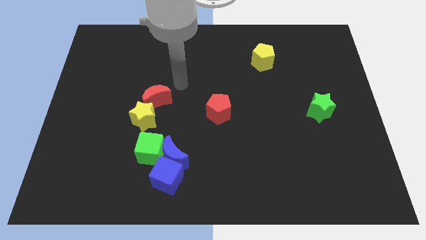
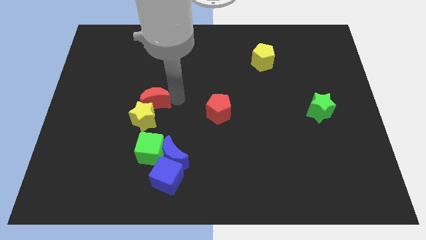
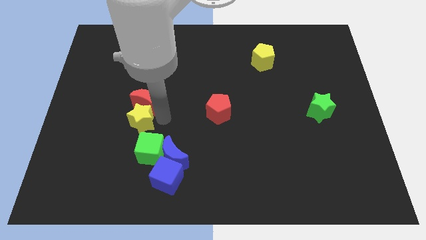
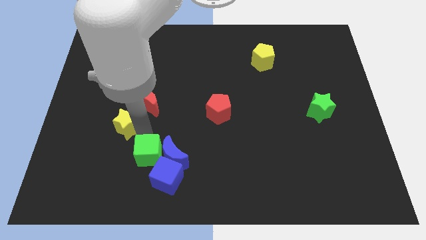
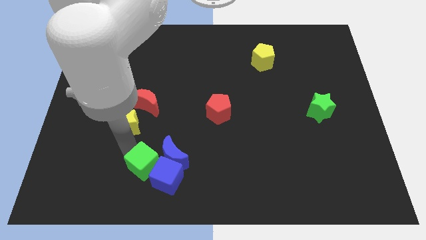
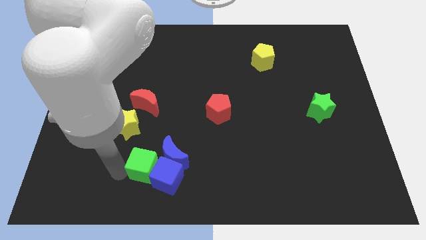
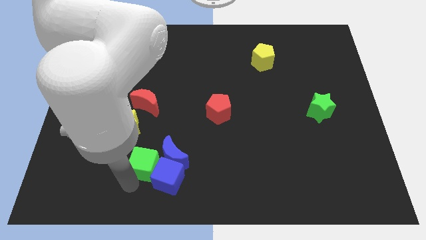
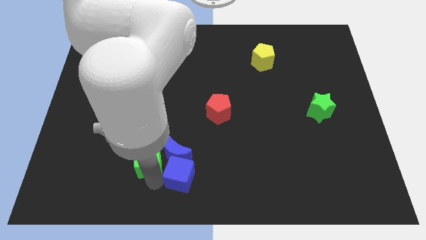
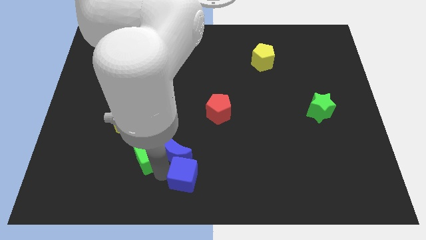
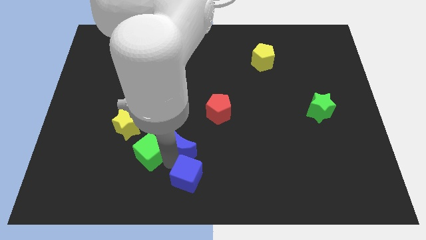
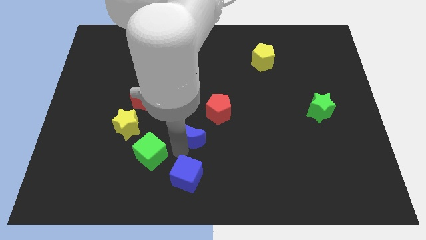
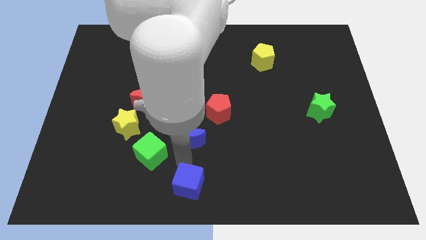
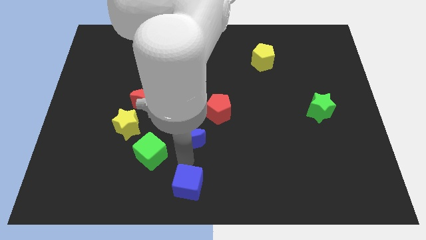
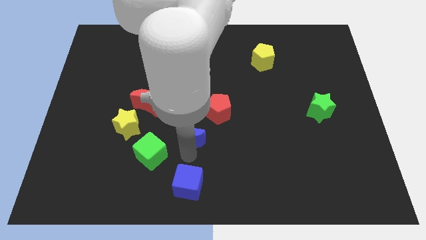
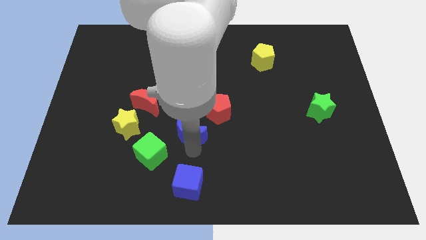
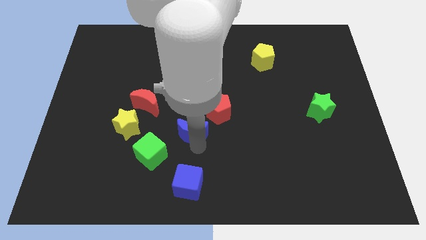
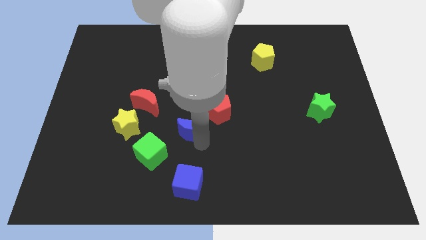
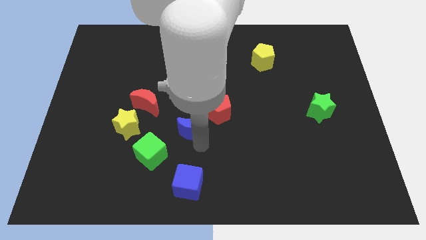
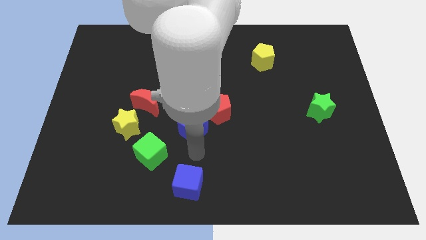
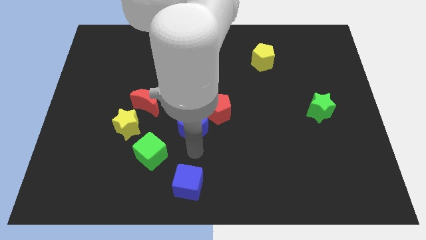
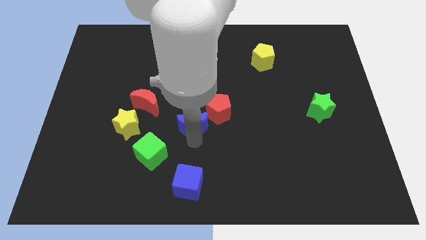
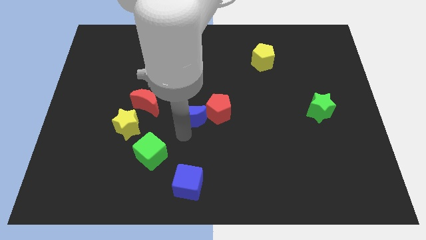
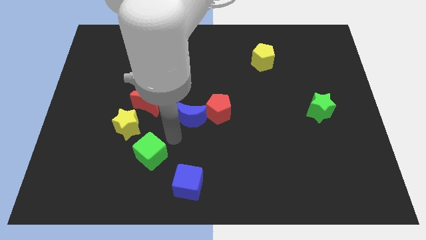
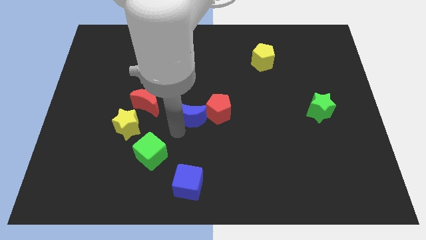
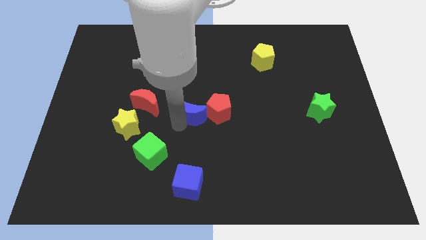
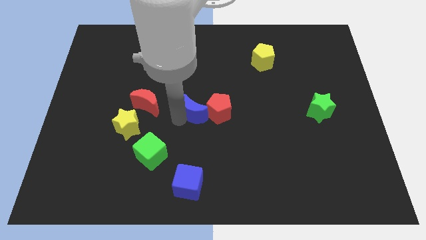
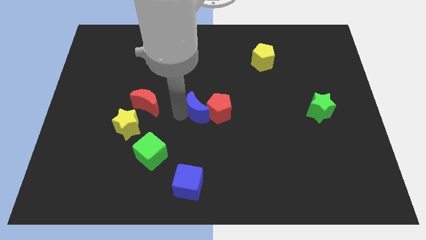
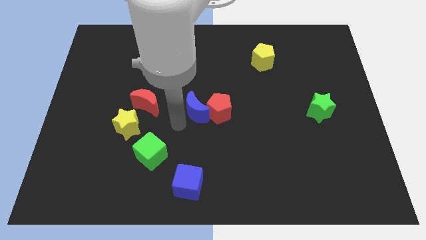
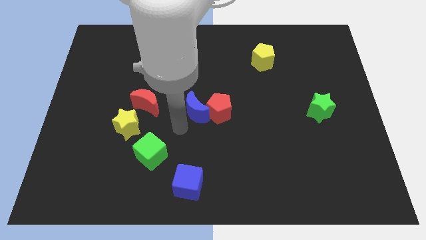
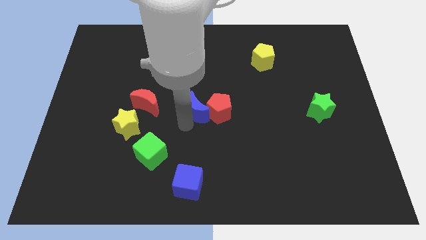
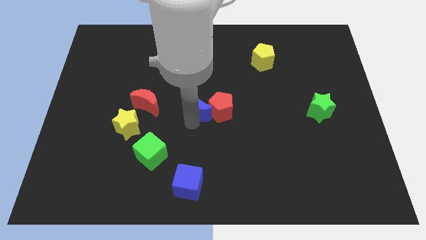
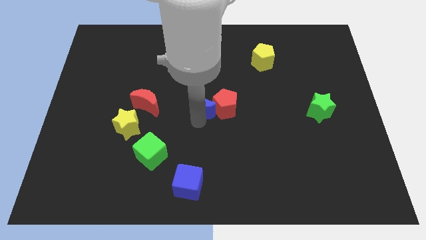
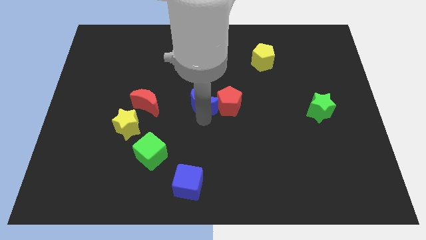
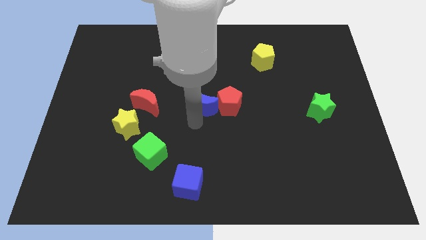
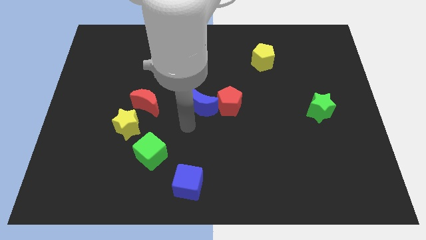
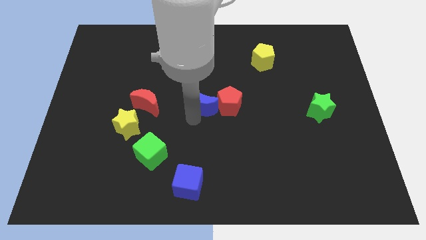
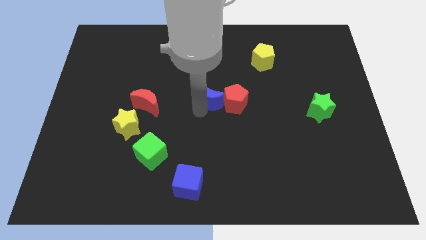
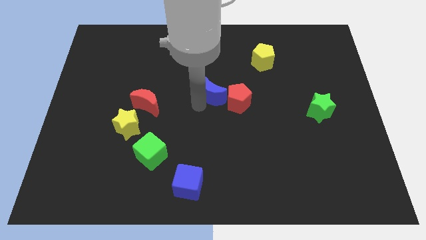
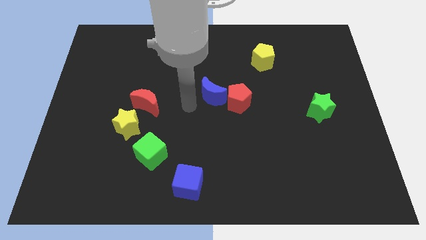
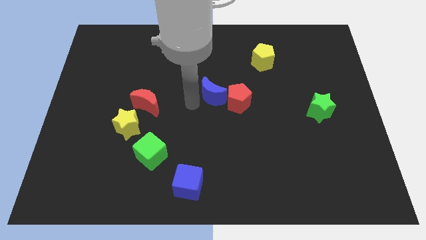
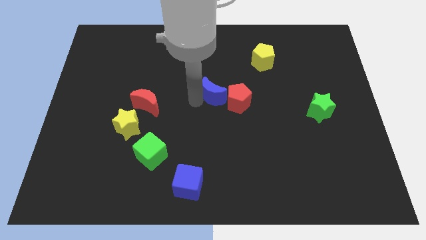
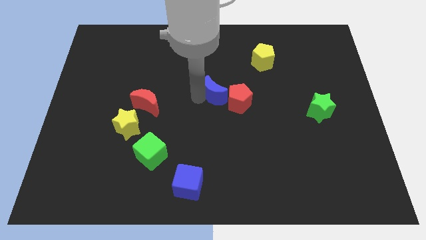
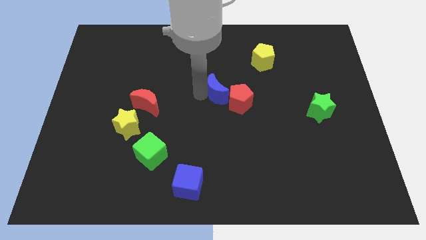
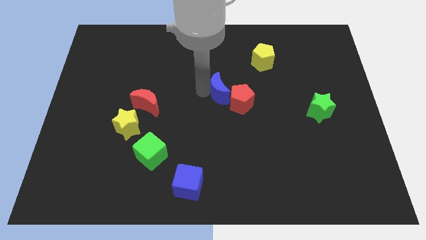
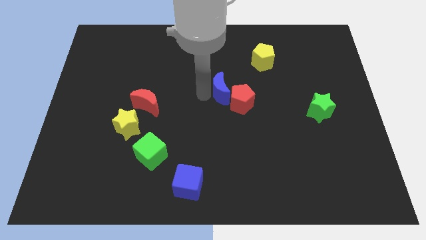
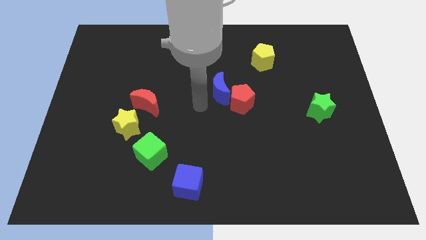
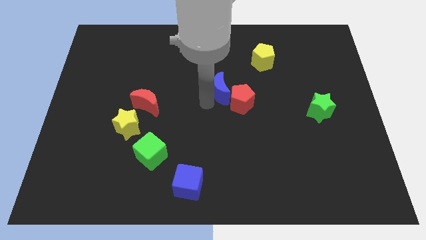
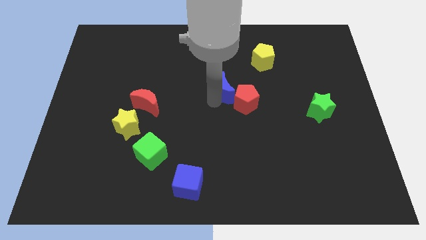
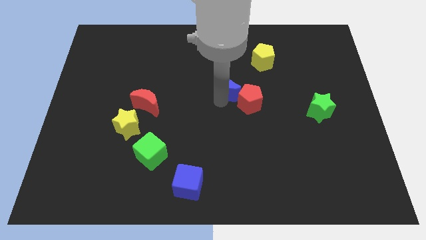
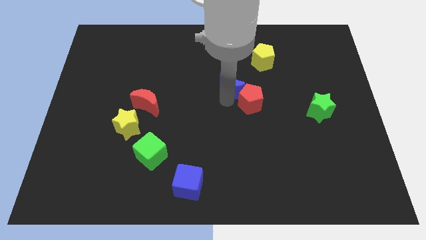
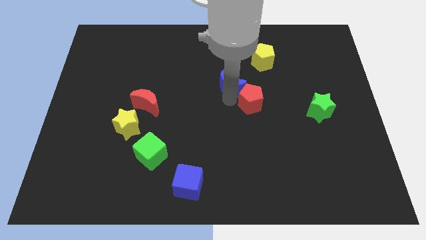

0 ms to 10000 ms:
slide the blue moon diagonally down and to the left of the yellow pentagon

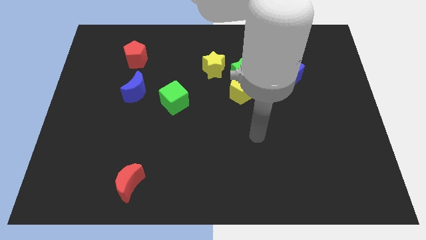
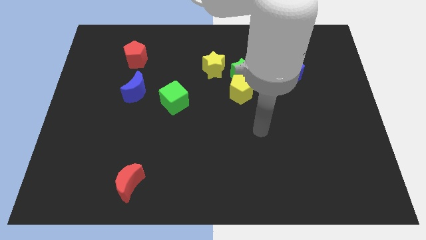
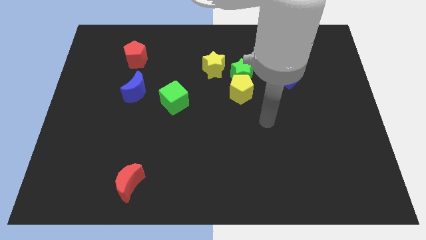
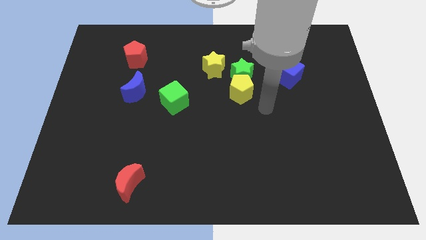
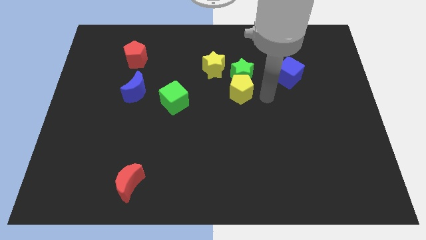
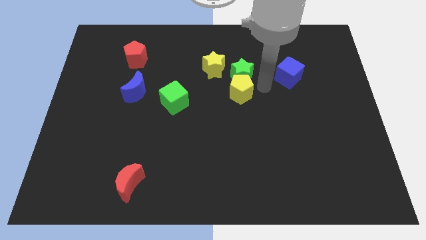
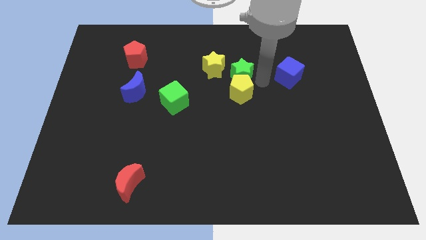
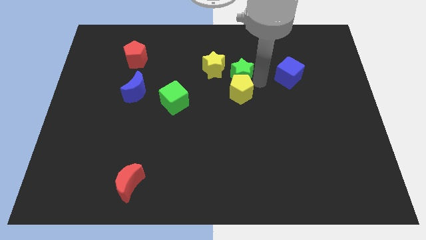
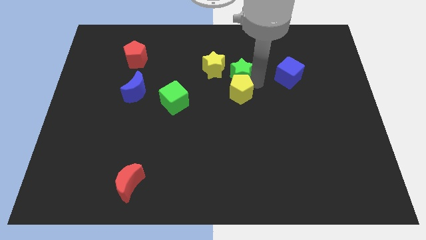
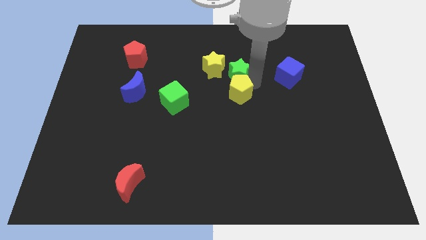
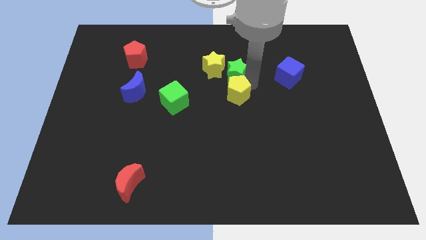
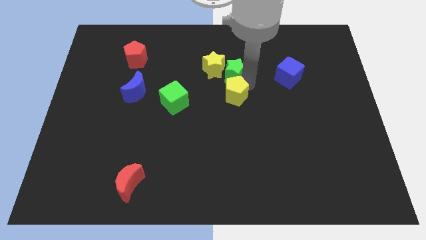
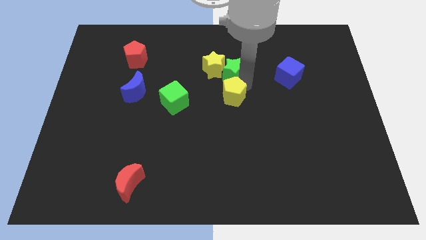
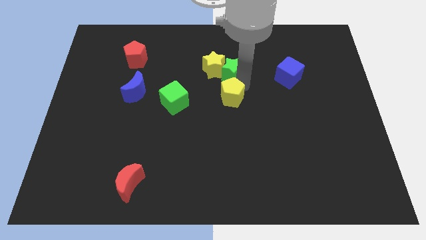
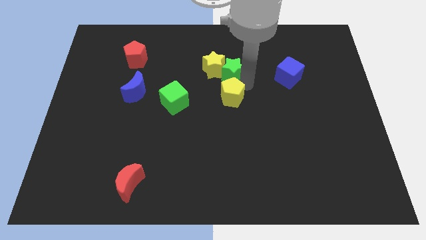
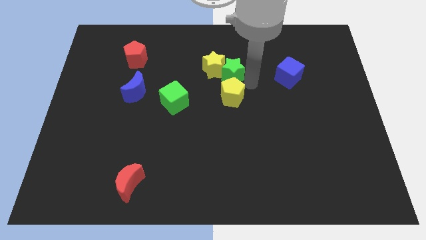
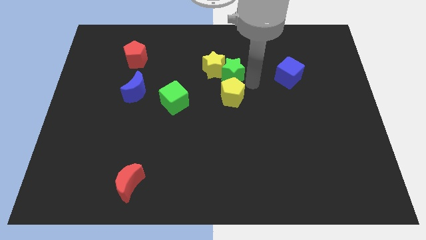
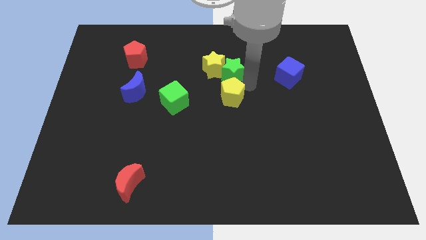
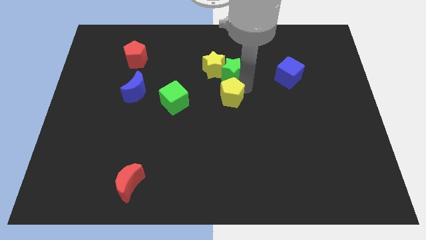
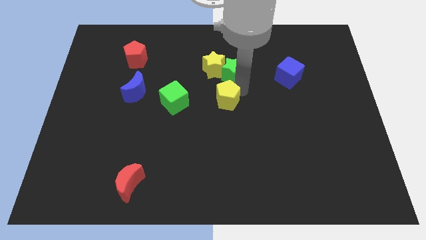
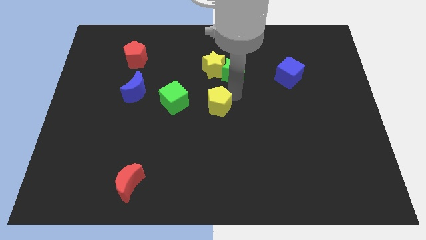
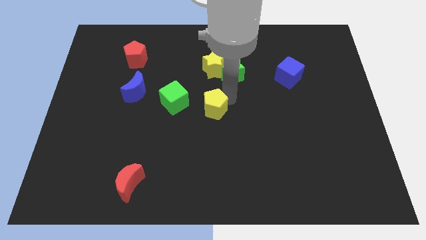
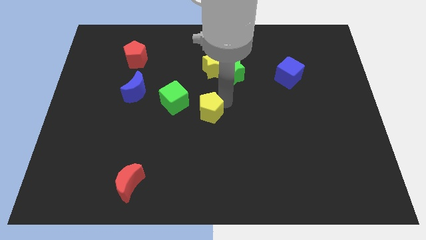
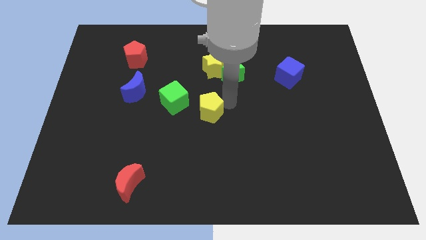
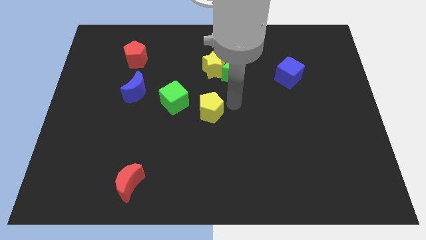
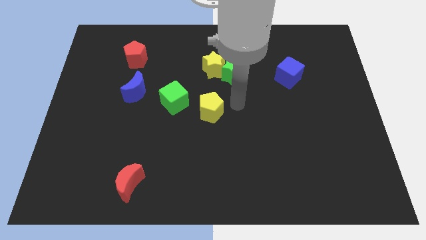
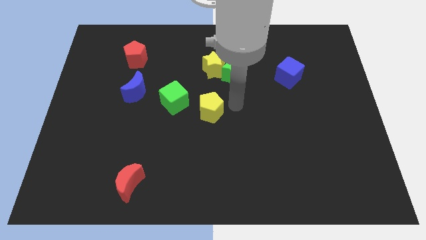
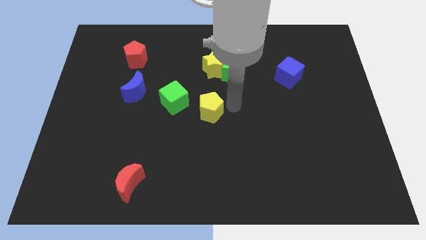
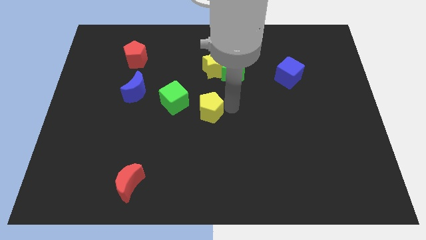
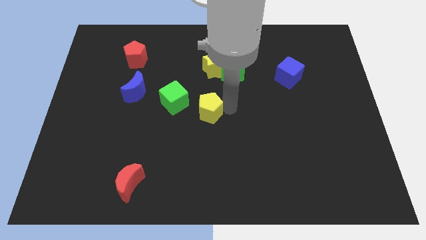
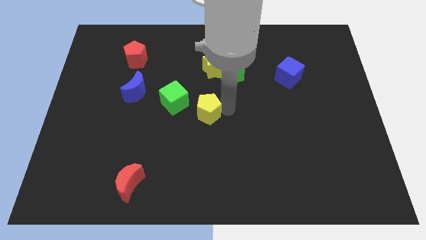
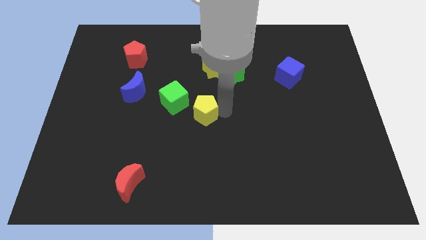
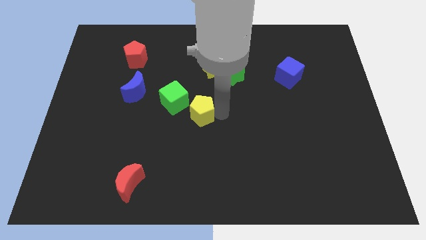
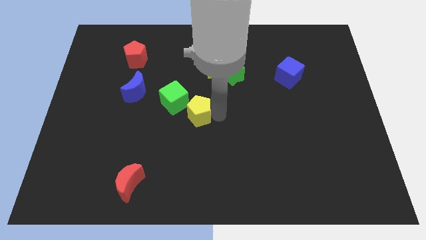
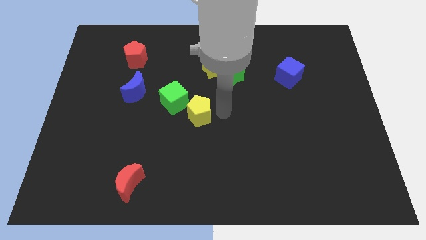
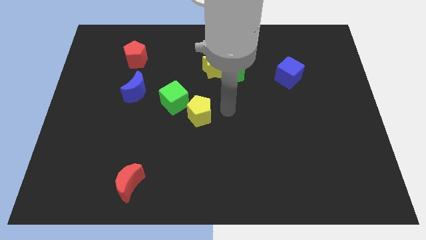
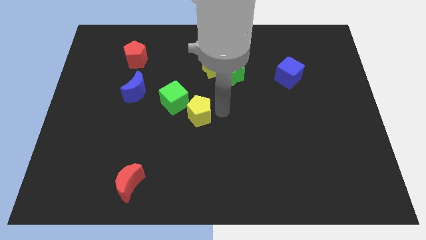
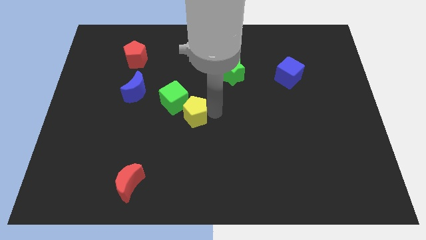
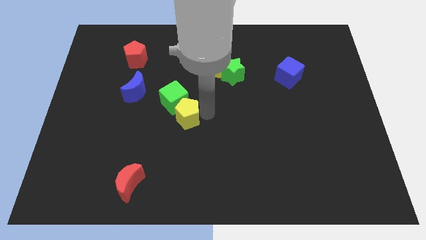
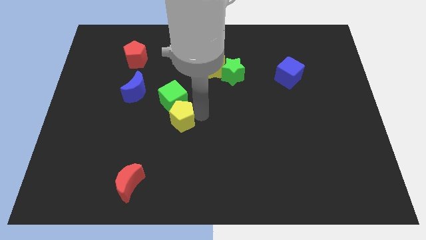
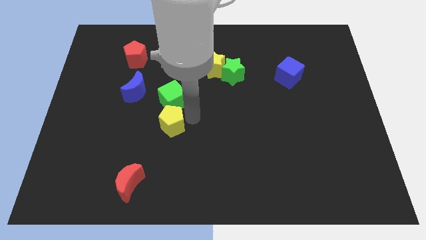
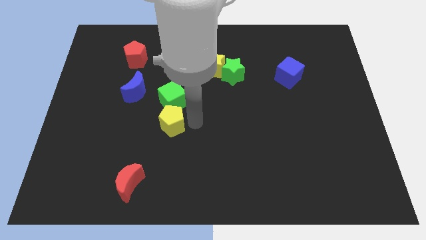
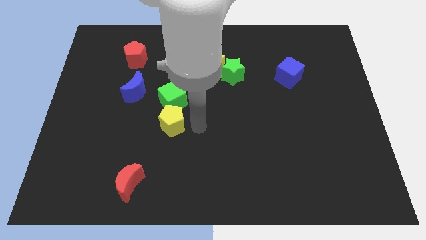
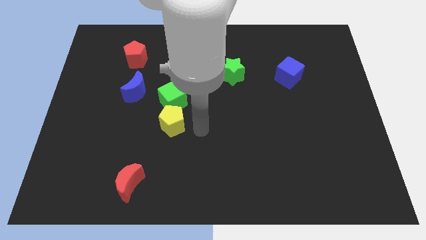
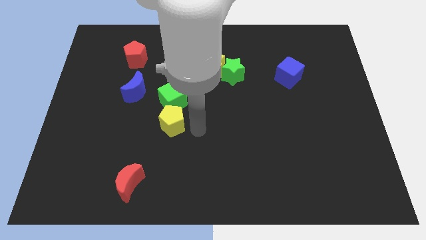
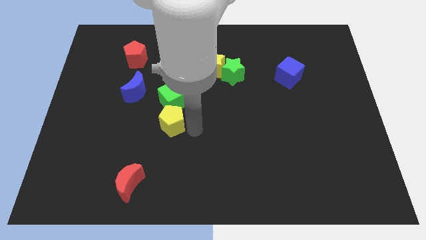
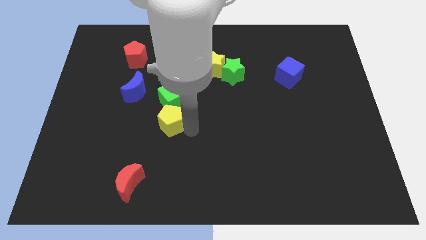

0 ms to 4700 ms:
put the yellow pentagon to the bottom left of the green cube
